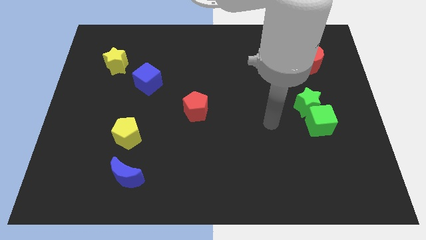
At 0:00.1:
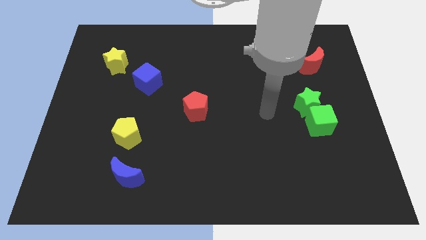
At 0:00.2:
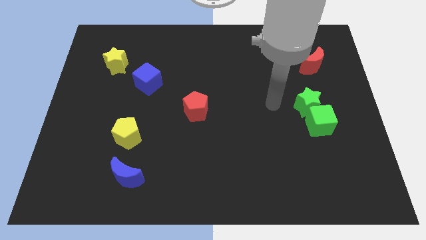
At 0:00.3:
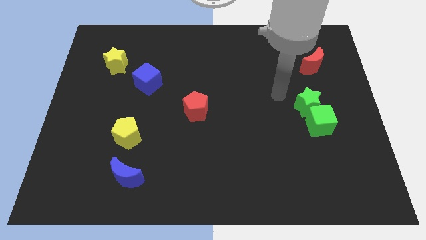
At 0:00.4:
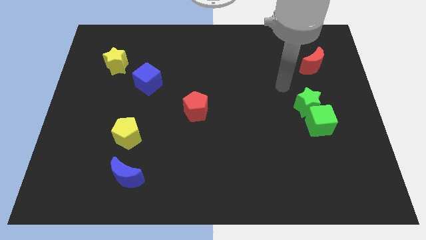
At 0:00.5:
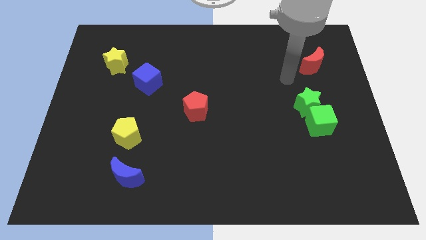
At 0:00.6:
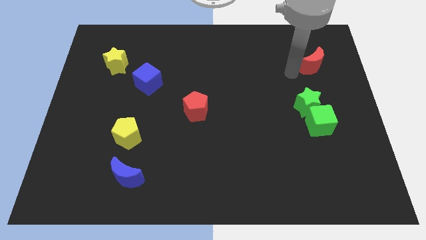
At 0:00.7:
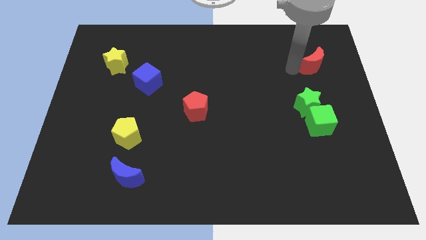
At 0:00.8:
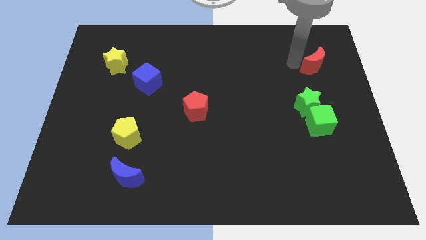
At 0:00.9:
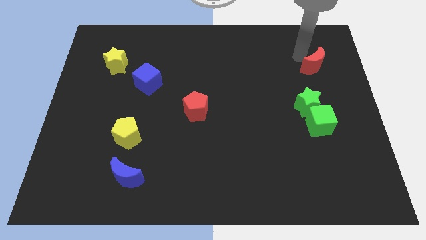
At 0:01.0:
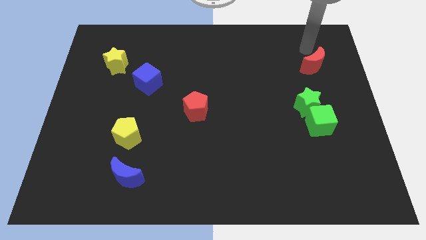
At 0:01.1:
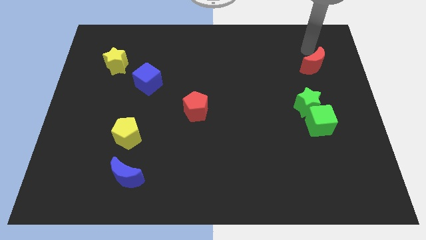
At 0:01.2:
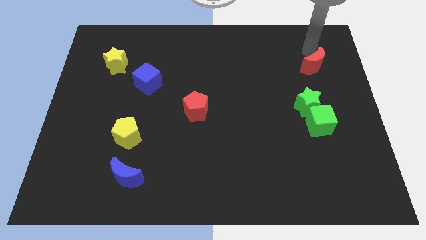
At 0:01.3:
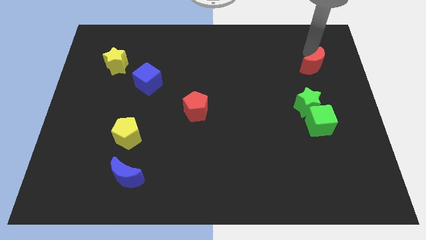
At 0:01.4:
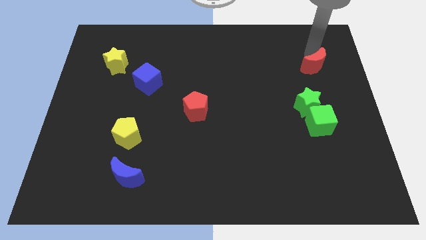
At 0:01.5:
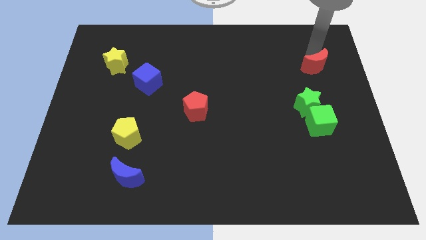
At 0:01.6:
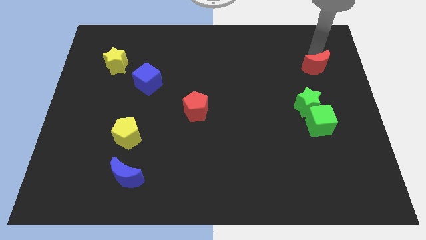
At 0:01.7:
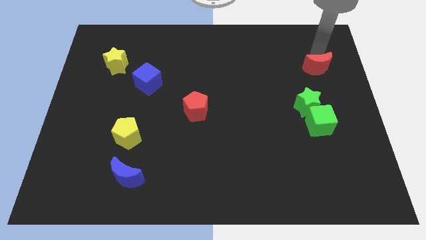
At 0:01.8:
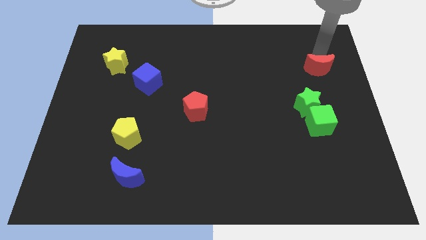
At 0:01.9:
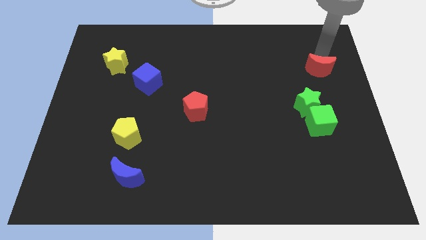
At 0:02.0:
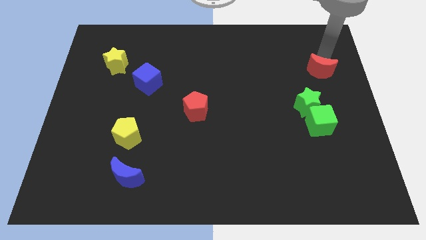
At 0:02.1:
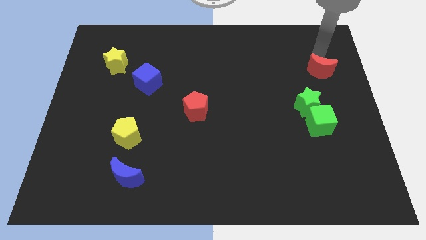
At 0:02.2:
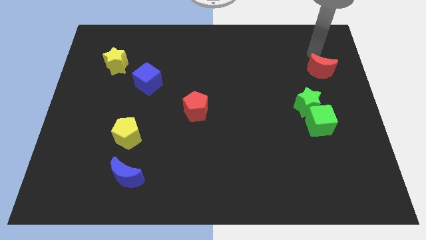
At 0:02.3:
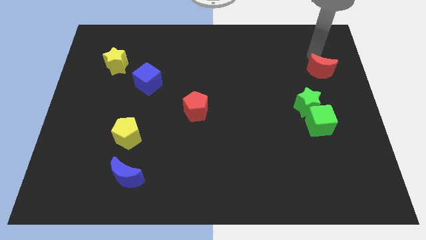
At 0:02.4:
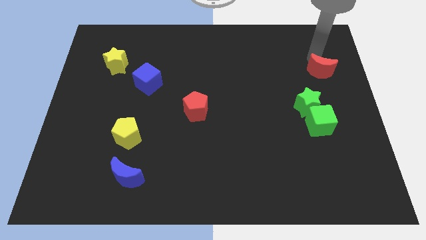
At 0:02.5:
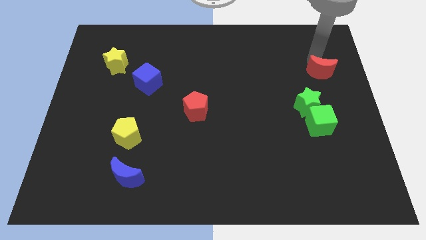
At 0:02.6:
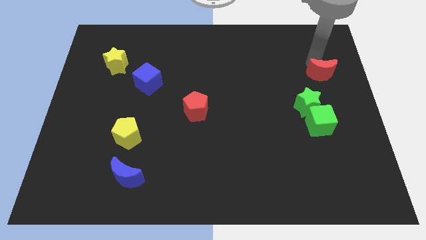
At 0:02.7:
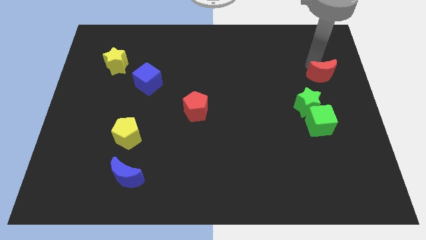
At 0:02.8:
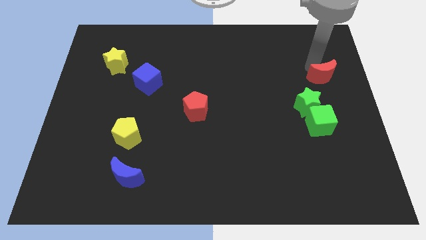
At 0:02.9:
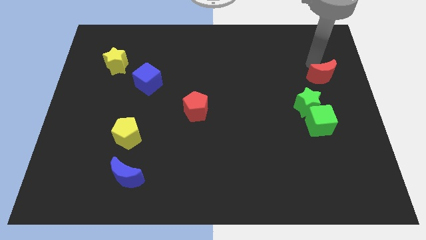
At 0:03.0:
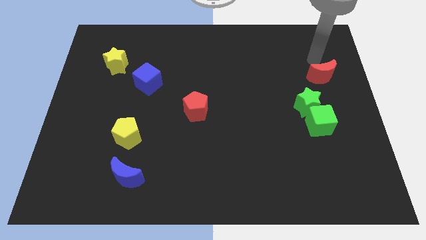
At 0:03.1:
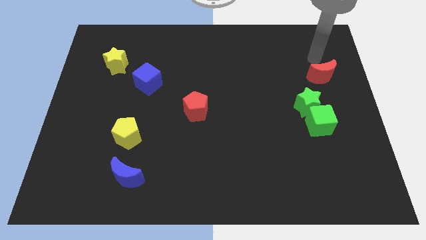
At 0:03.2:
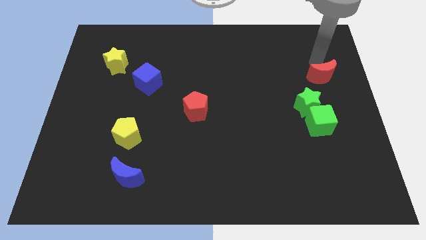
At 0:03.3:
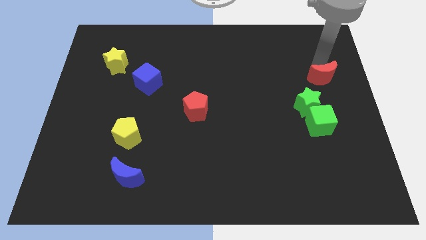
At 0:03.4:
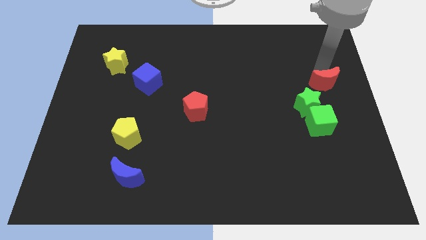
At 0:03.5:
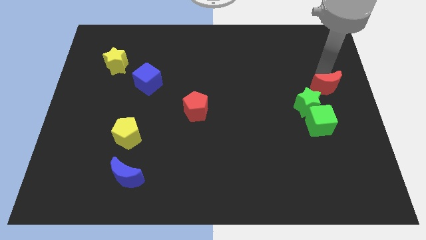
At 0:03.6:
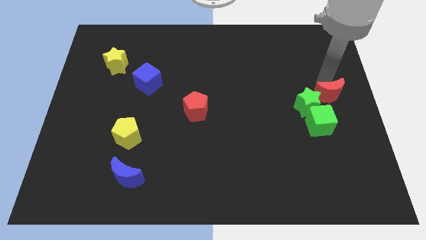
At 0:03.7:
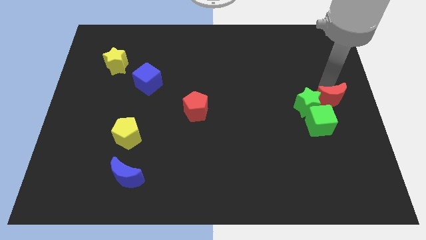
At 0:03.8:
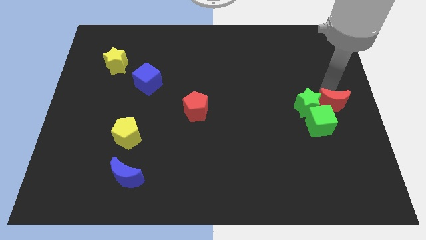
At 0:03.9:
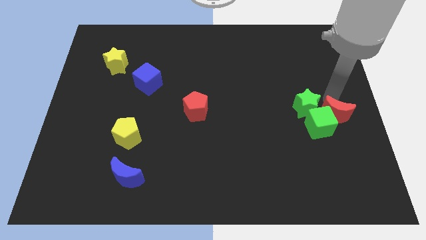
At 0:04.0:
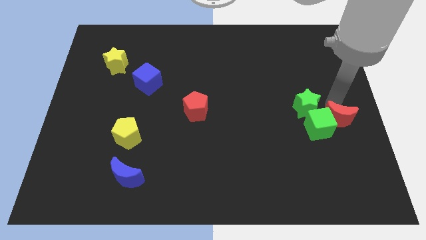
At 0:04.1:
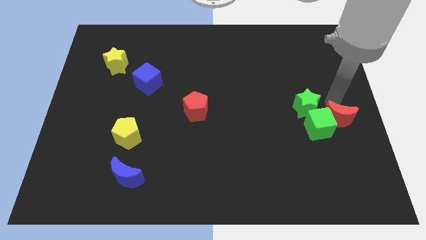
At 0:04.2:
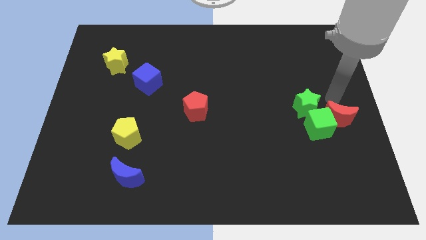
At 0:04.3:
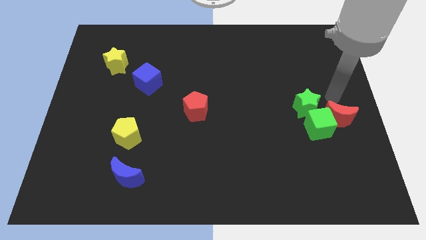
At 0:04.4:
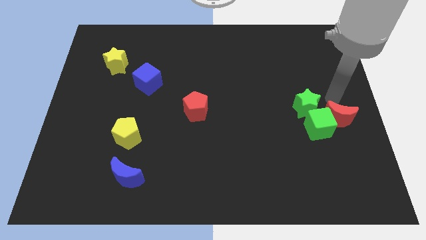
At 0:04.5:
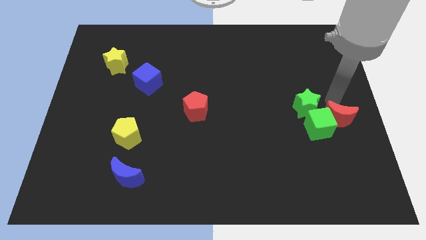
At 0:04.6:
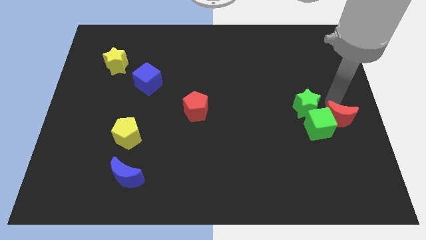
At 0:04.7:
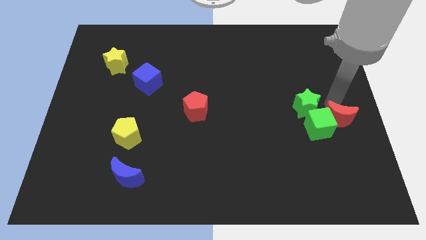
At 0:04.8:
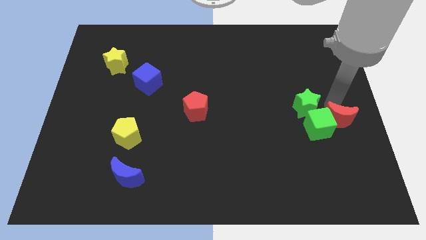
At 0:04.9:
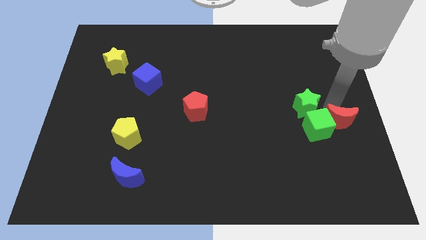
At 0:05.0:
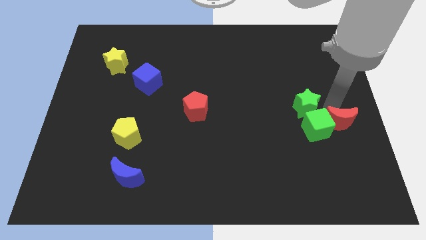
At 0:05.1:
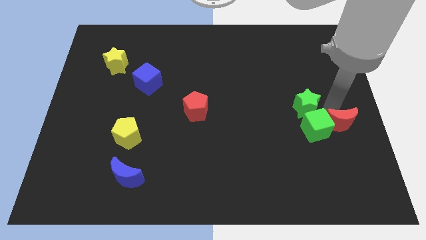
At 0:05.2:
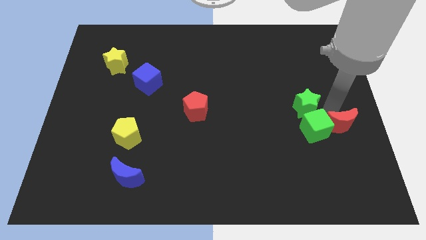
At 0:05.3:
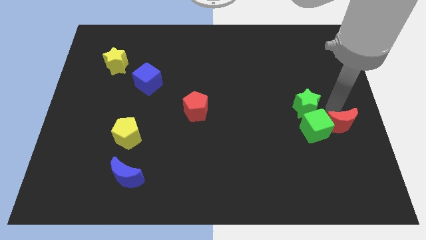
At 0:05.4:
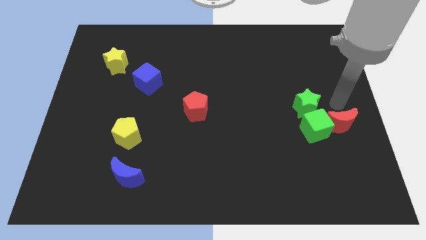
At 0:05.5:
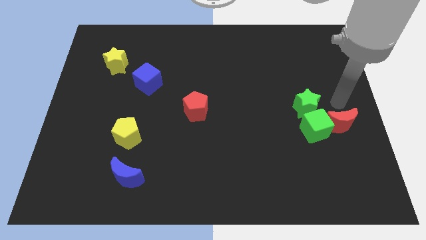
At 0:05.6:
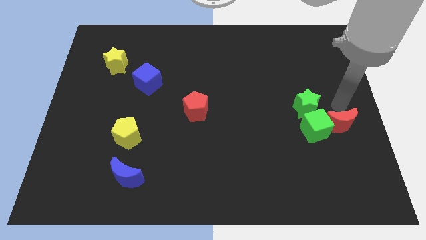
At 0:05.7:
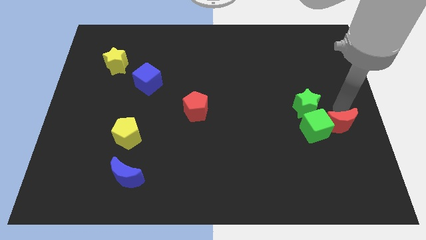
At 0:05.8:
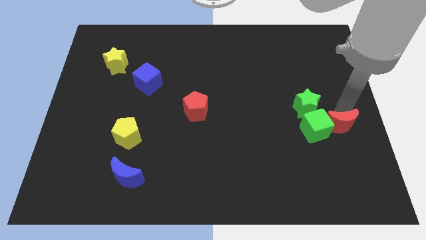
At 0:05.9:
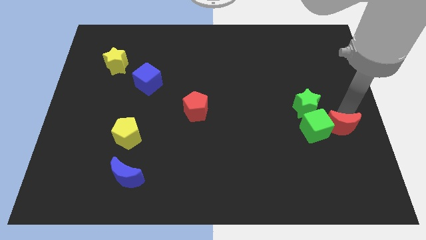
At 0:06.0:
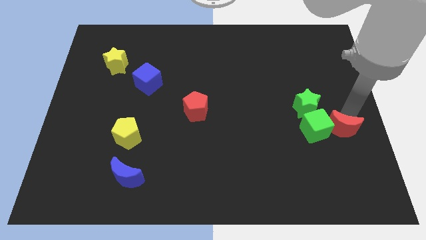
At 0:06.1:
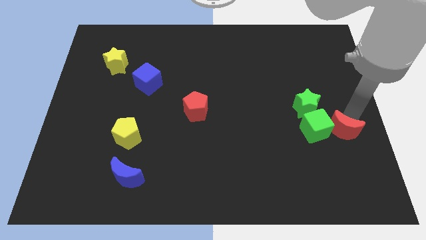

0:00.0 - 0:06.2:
push the red moon down

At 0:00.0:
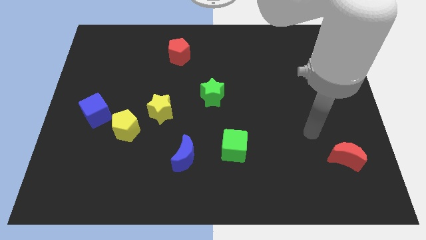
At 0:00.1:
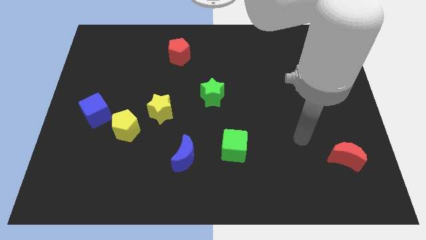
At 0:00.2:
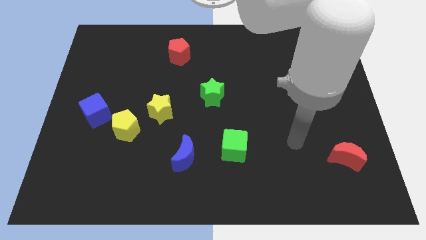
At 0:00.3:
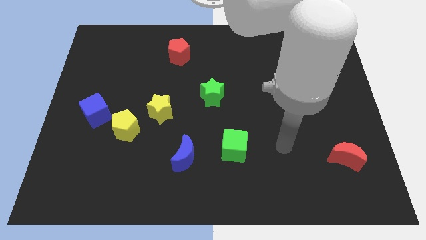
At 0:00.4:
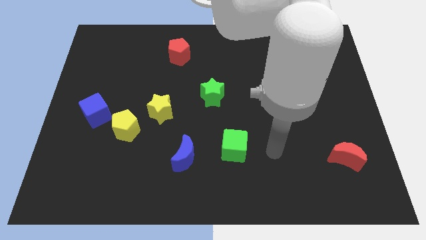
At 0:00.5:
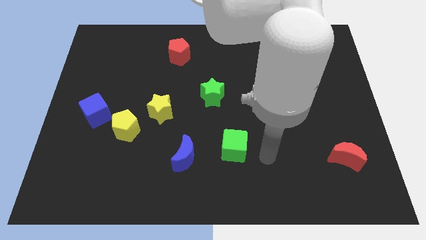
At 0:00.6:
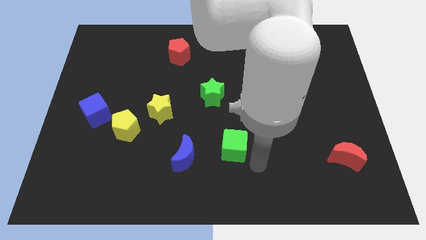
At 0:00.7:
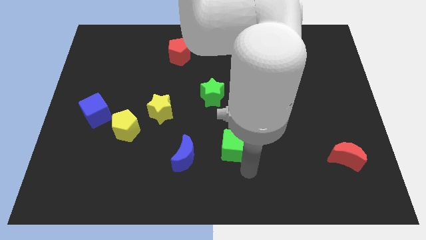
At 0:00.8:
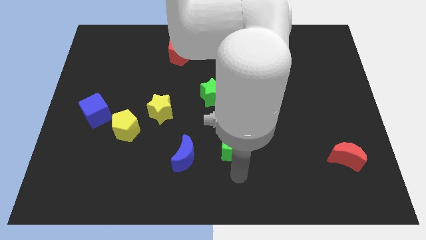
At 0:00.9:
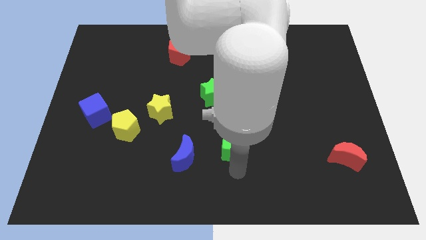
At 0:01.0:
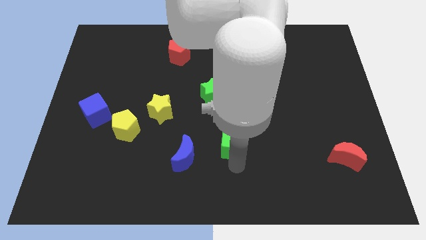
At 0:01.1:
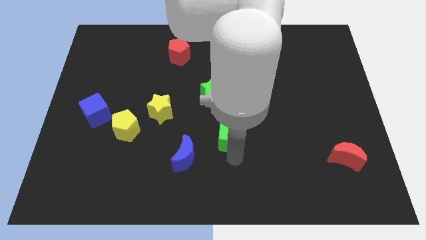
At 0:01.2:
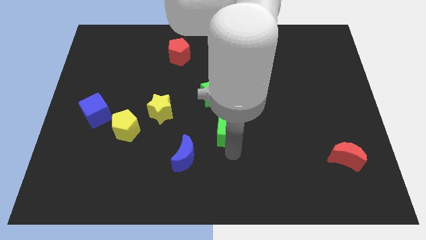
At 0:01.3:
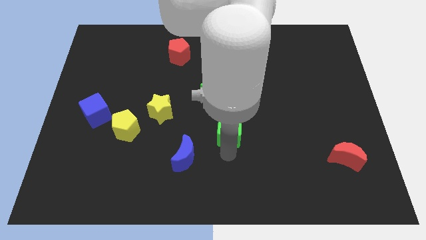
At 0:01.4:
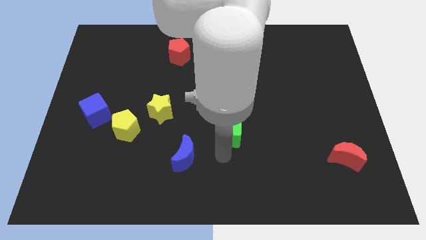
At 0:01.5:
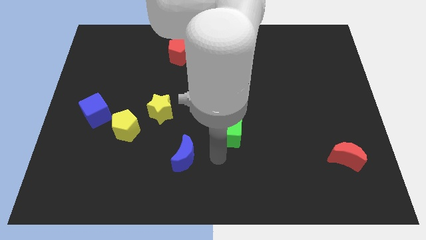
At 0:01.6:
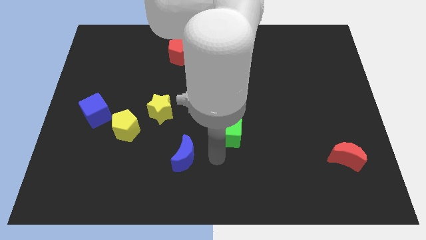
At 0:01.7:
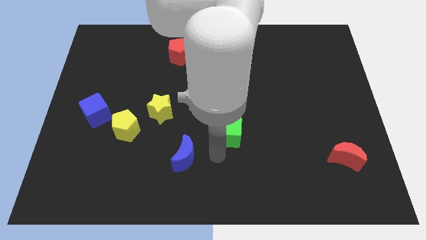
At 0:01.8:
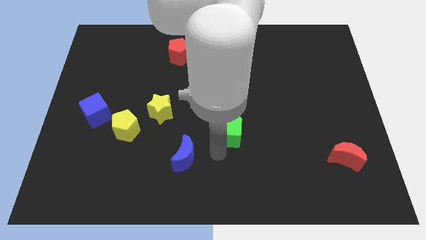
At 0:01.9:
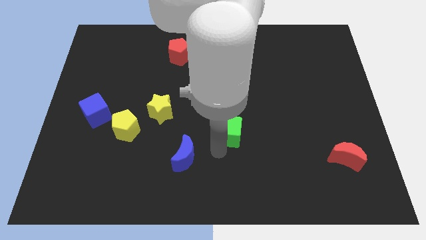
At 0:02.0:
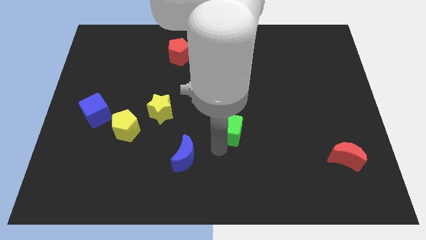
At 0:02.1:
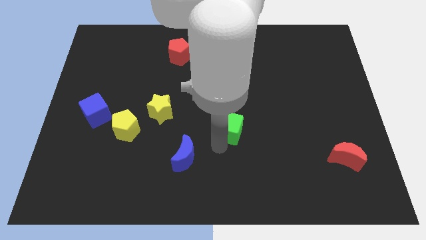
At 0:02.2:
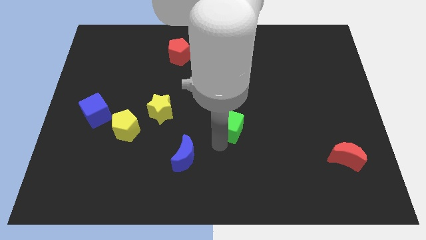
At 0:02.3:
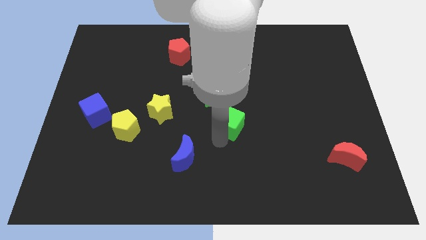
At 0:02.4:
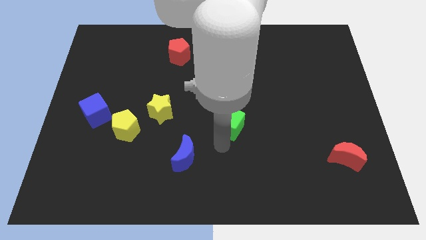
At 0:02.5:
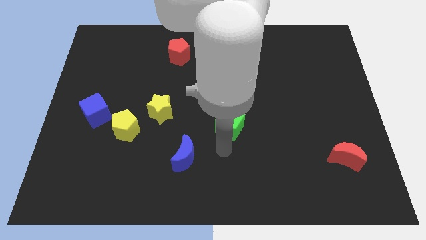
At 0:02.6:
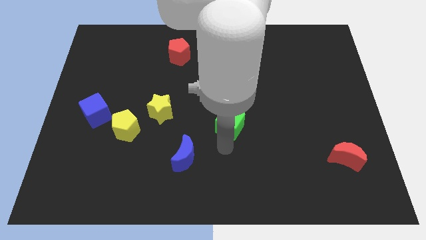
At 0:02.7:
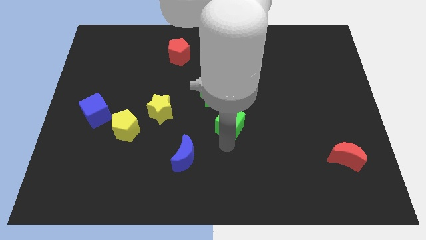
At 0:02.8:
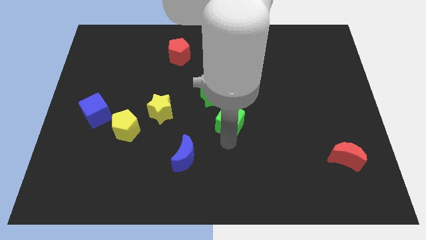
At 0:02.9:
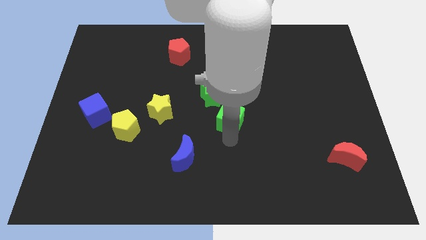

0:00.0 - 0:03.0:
move the green cube up a bit
